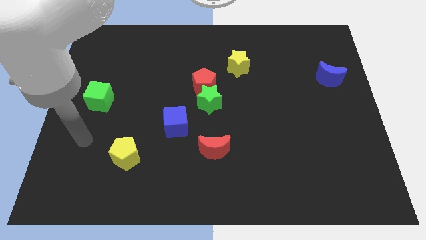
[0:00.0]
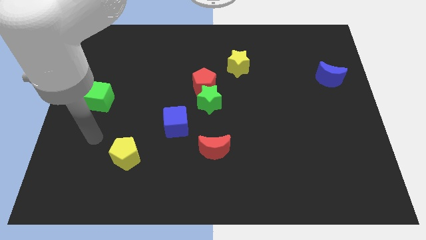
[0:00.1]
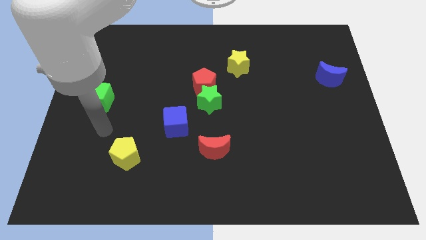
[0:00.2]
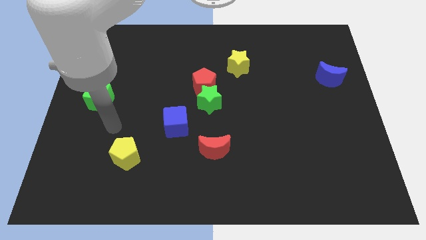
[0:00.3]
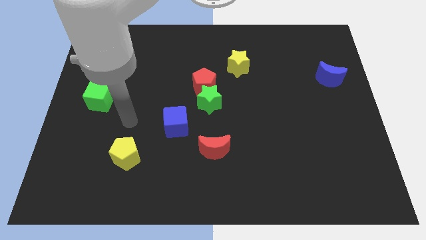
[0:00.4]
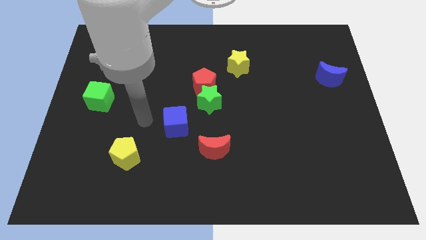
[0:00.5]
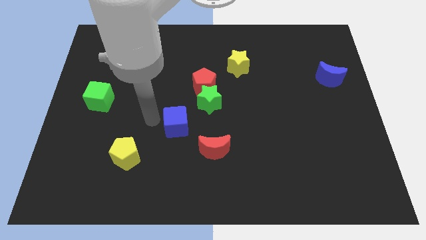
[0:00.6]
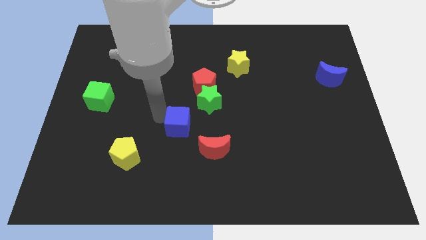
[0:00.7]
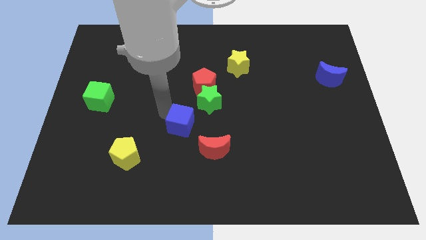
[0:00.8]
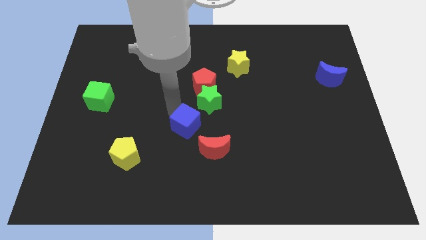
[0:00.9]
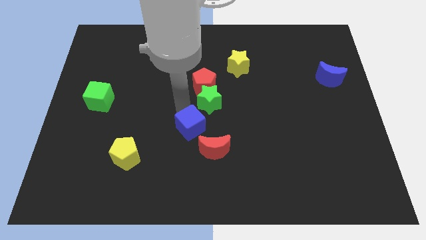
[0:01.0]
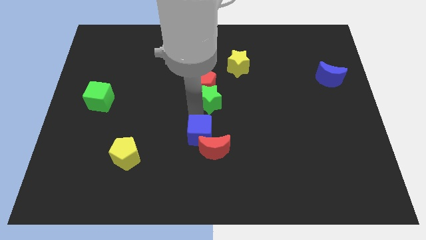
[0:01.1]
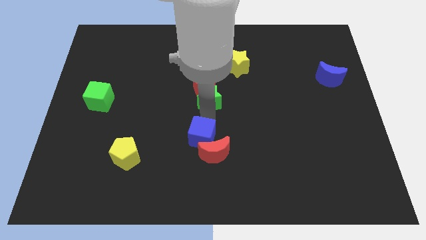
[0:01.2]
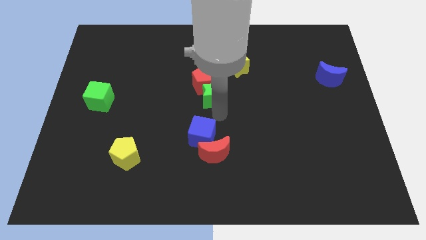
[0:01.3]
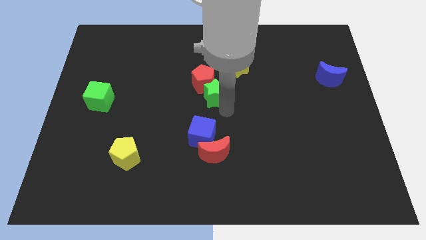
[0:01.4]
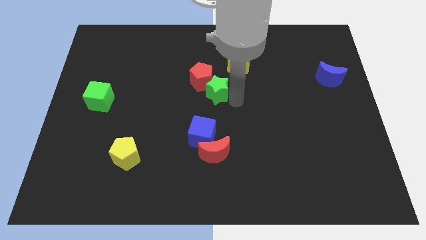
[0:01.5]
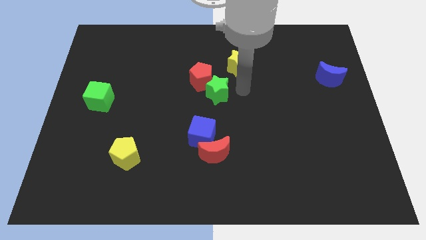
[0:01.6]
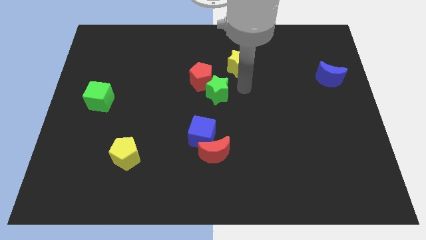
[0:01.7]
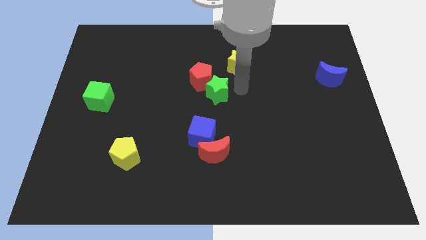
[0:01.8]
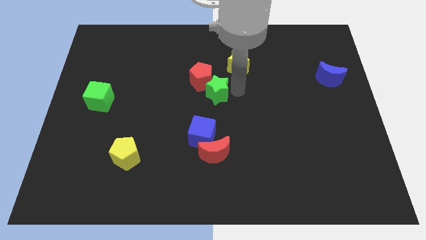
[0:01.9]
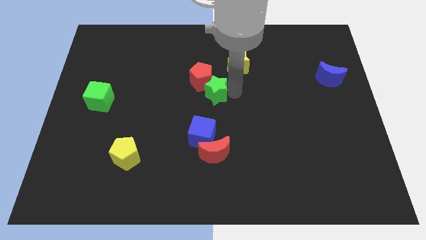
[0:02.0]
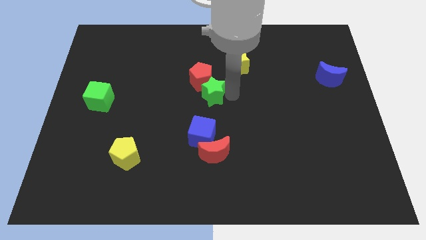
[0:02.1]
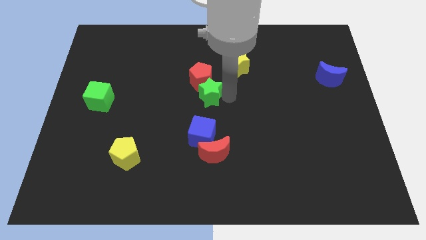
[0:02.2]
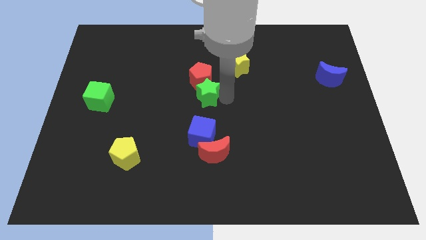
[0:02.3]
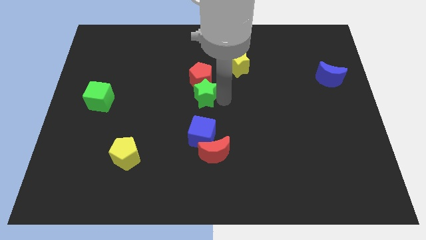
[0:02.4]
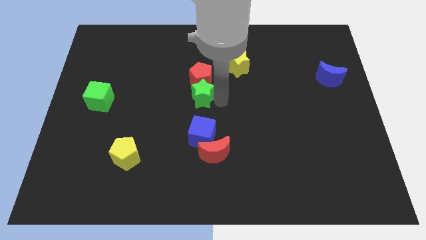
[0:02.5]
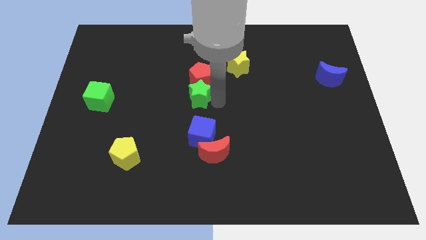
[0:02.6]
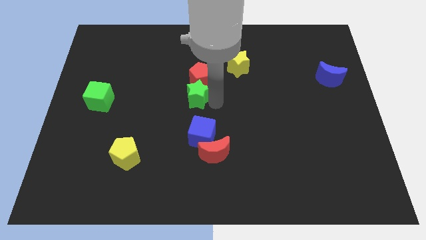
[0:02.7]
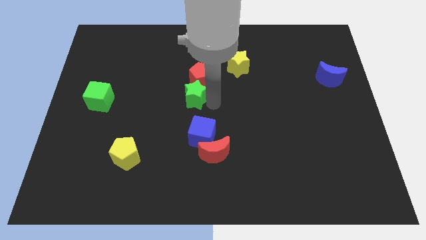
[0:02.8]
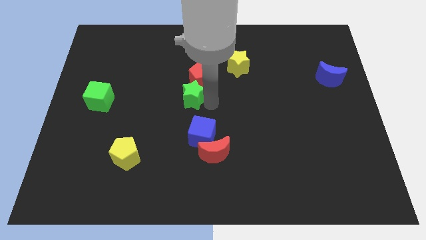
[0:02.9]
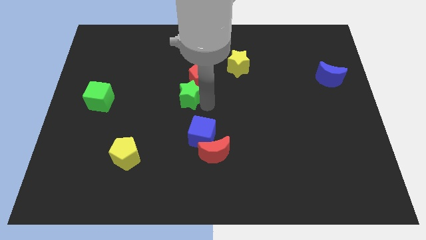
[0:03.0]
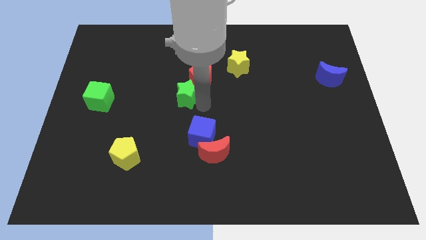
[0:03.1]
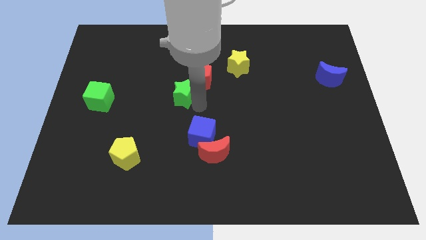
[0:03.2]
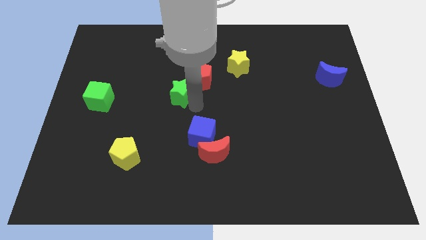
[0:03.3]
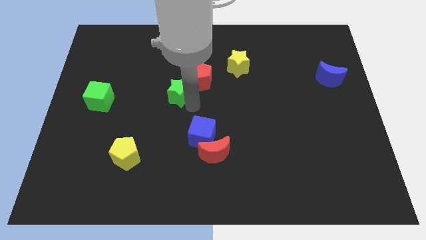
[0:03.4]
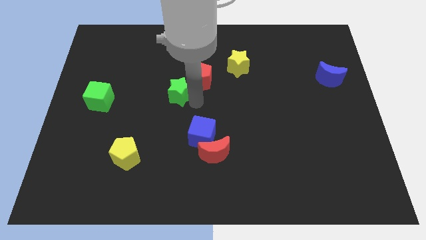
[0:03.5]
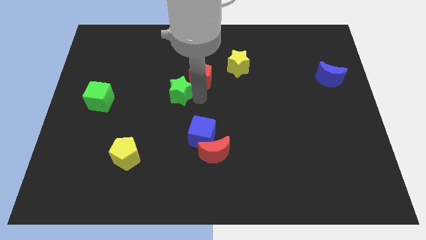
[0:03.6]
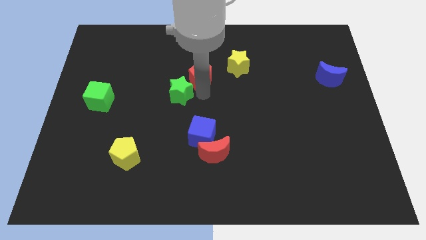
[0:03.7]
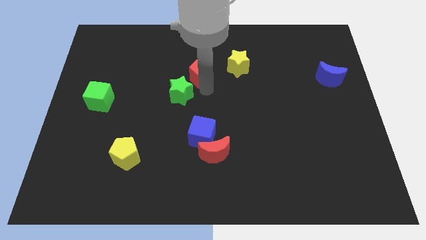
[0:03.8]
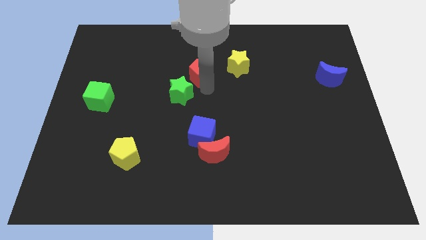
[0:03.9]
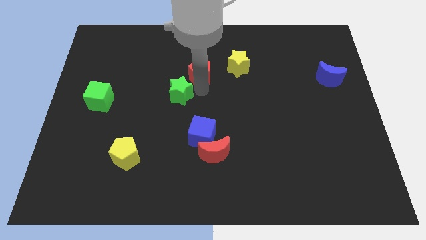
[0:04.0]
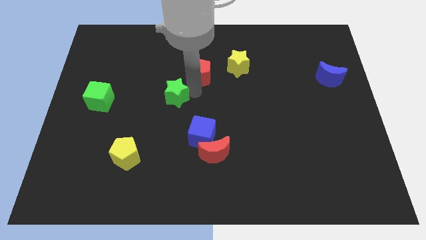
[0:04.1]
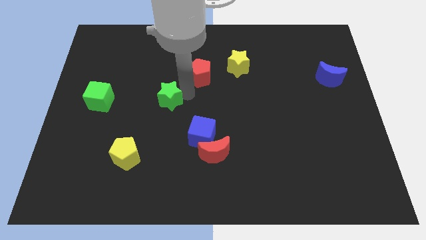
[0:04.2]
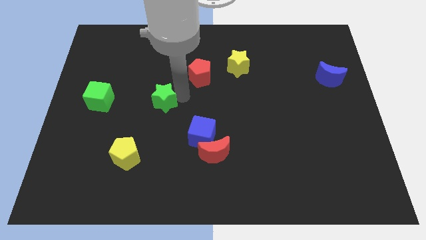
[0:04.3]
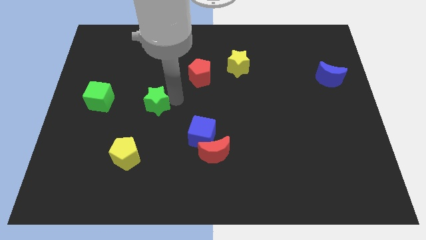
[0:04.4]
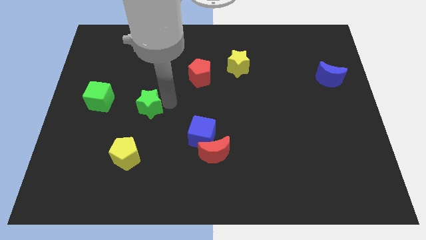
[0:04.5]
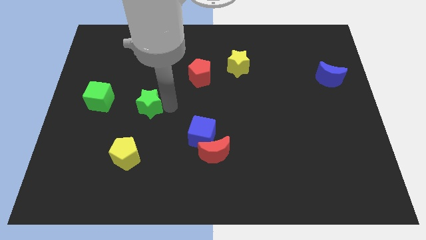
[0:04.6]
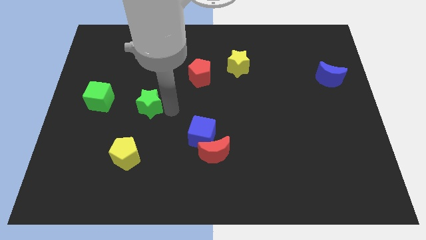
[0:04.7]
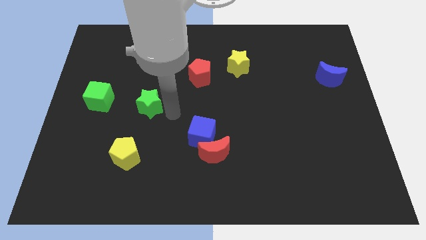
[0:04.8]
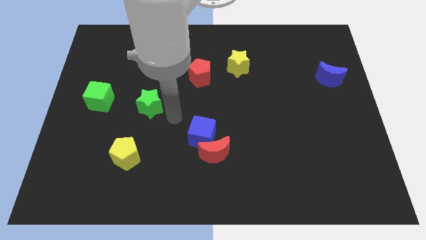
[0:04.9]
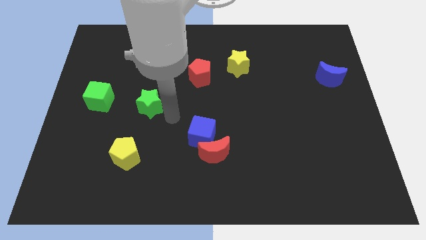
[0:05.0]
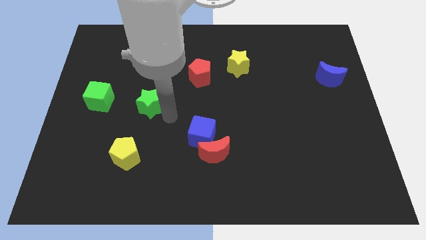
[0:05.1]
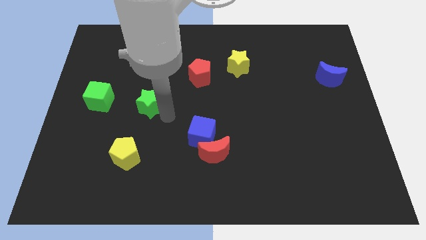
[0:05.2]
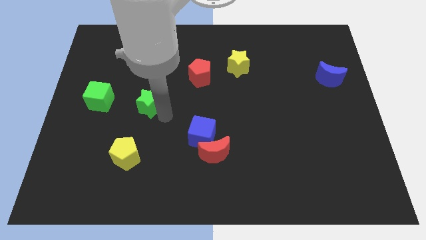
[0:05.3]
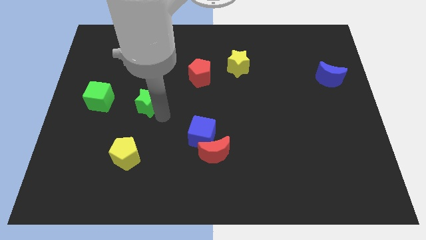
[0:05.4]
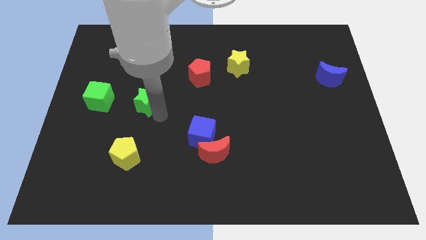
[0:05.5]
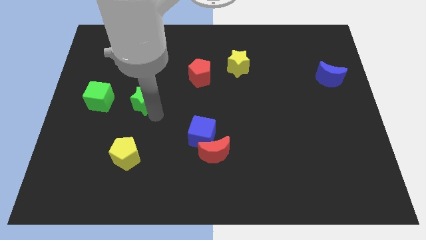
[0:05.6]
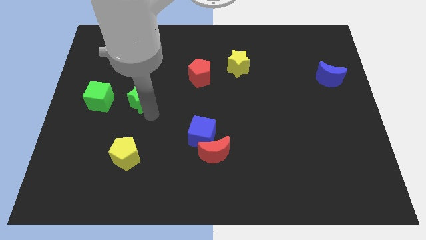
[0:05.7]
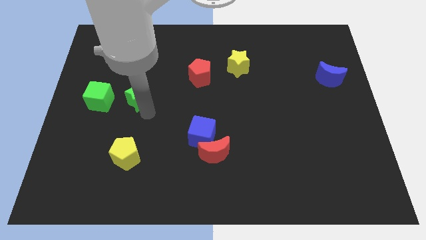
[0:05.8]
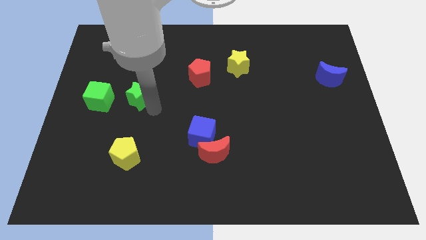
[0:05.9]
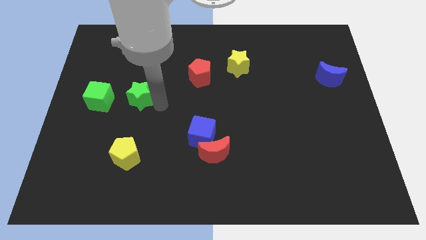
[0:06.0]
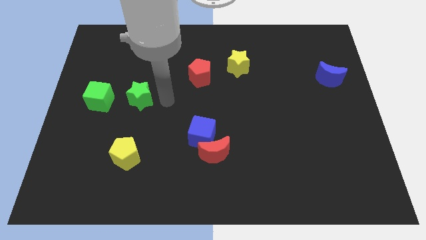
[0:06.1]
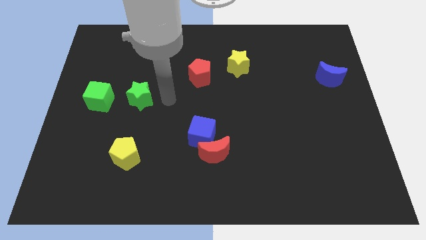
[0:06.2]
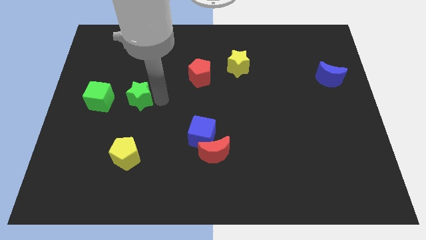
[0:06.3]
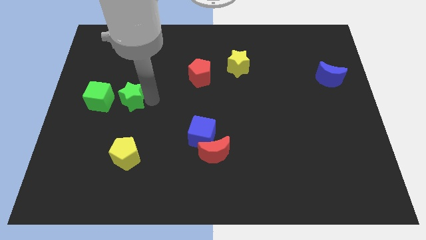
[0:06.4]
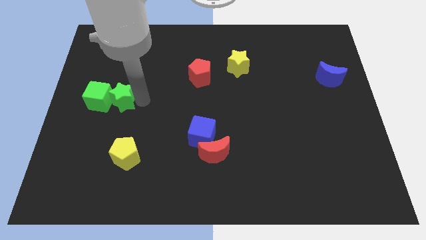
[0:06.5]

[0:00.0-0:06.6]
slide the green star towards the green cube

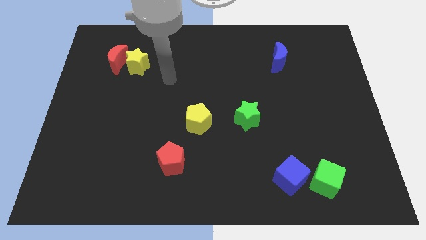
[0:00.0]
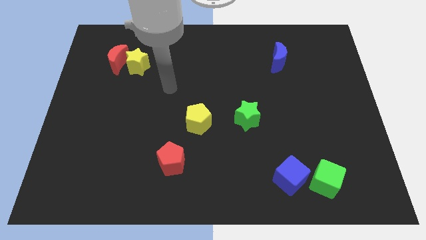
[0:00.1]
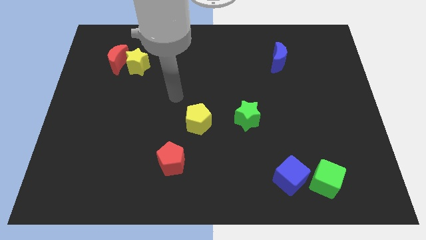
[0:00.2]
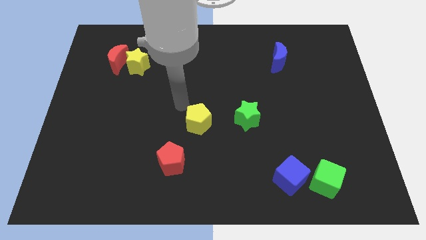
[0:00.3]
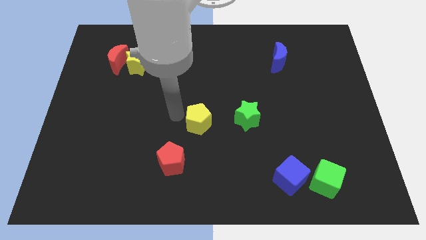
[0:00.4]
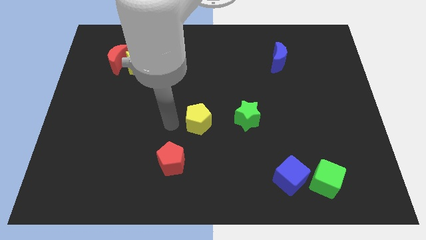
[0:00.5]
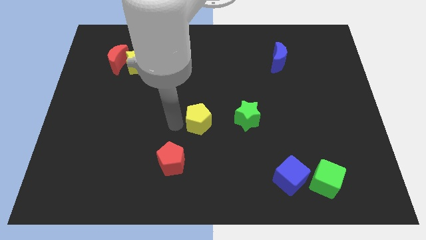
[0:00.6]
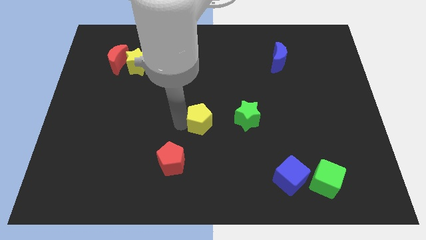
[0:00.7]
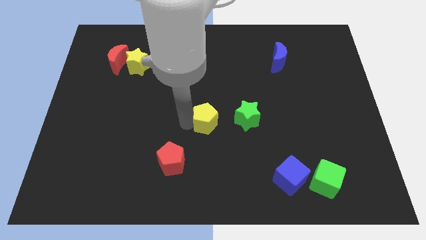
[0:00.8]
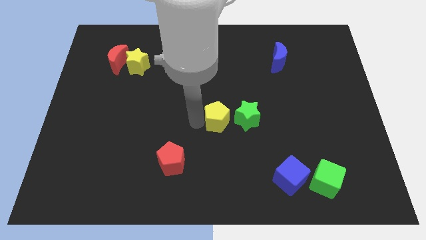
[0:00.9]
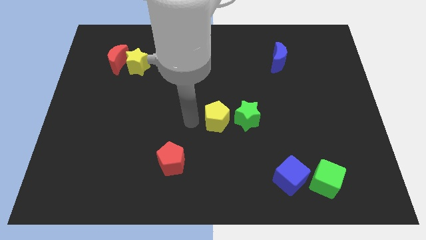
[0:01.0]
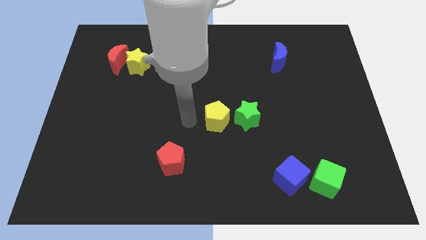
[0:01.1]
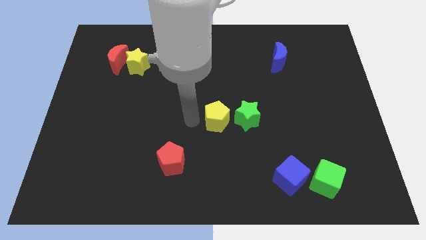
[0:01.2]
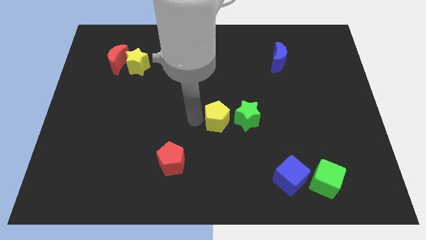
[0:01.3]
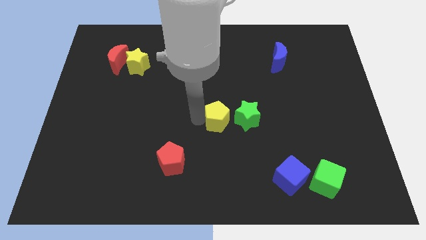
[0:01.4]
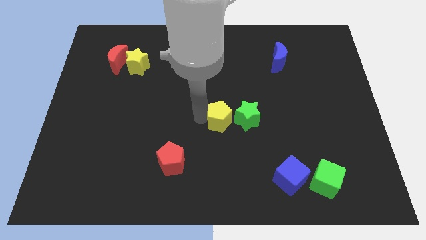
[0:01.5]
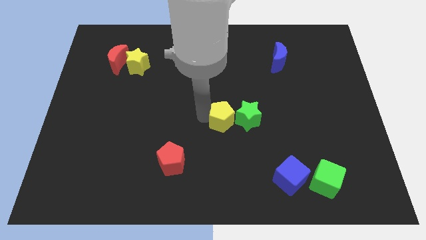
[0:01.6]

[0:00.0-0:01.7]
put the yellow pentagon close to the green star
